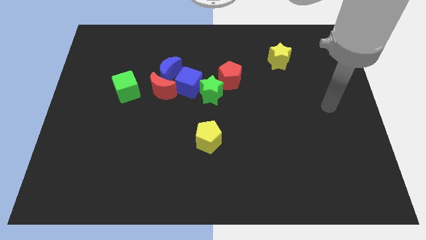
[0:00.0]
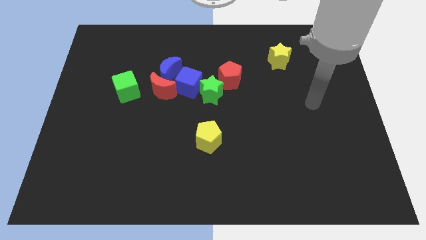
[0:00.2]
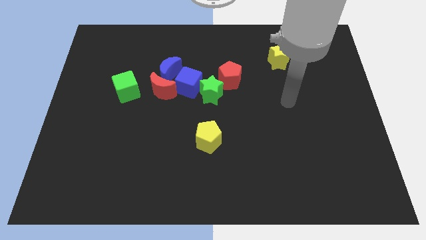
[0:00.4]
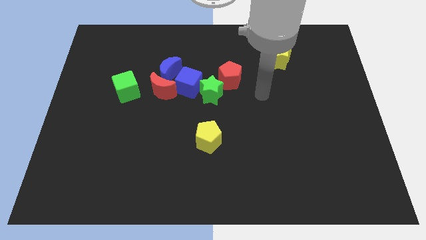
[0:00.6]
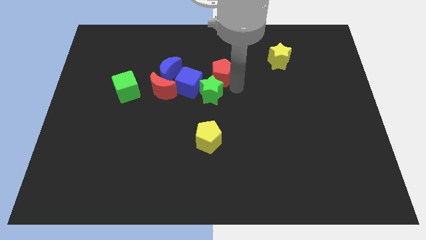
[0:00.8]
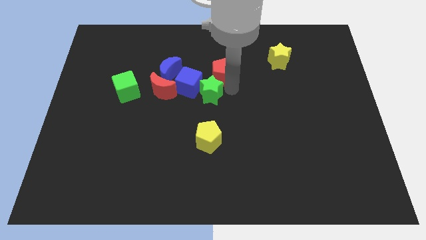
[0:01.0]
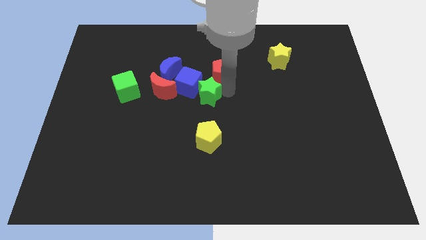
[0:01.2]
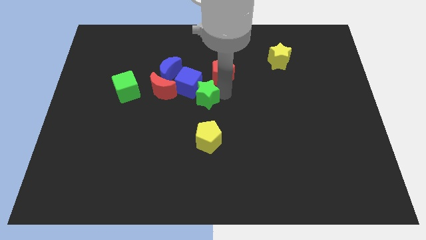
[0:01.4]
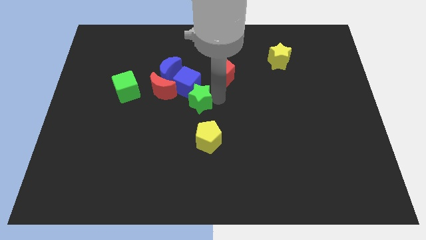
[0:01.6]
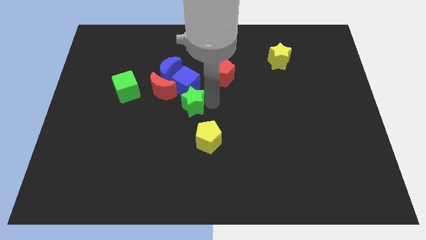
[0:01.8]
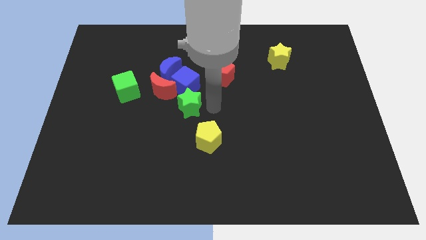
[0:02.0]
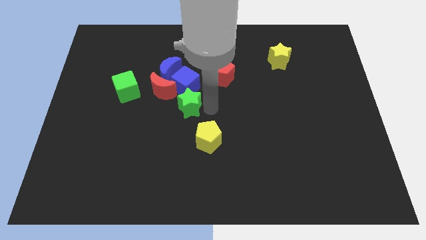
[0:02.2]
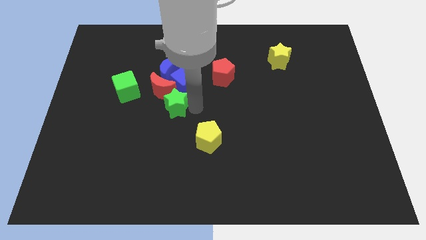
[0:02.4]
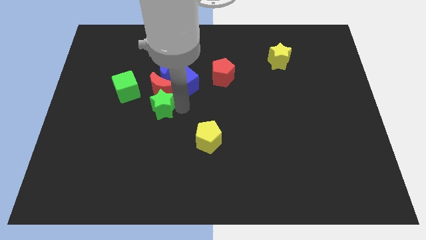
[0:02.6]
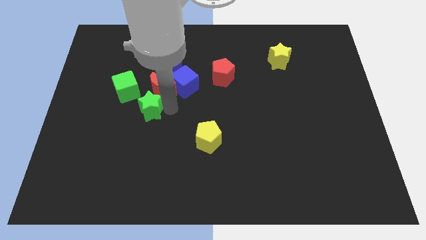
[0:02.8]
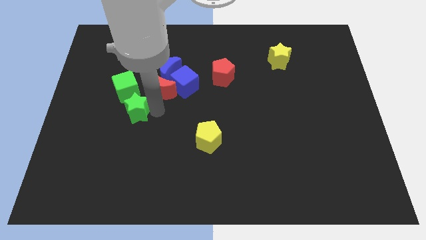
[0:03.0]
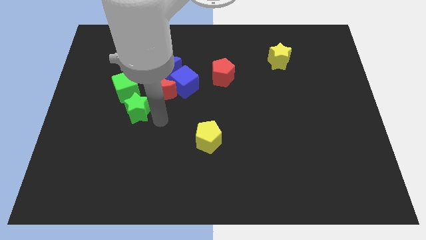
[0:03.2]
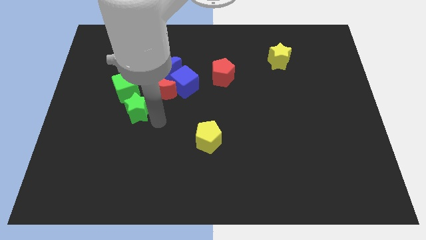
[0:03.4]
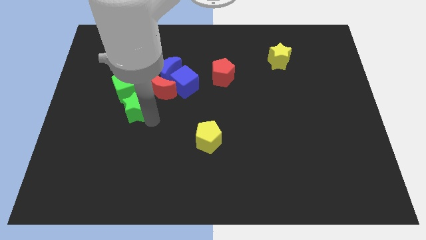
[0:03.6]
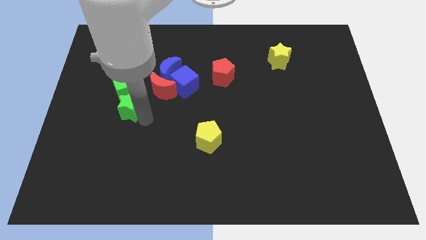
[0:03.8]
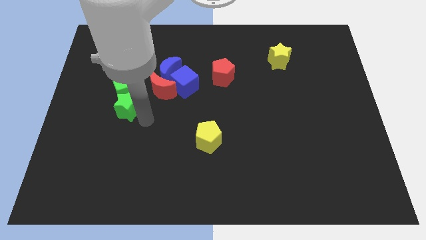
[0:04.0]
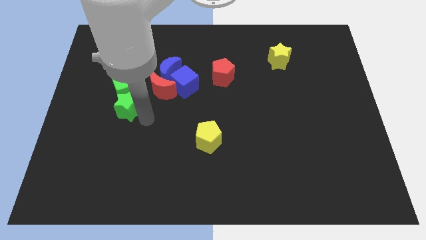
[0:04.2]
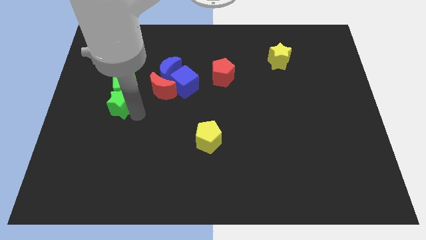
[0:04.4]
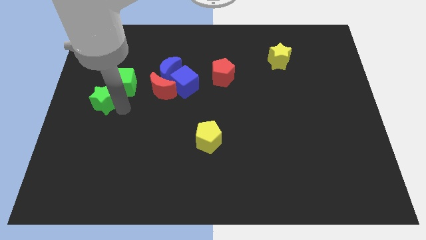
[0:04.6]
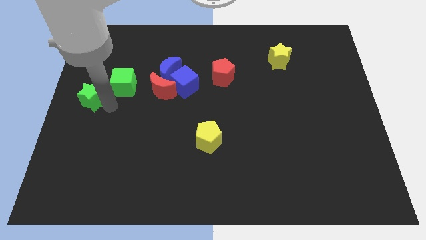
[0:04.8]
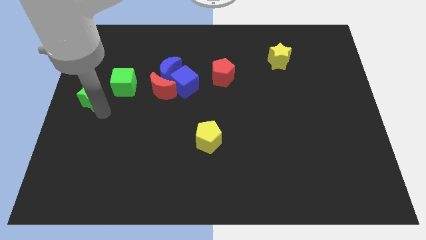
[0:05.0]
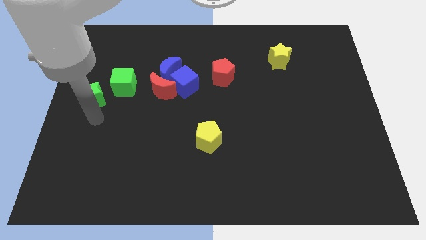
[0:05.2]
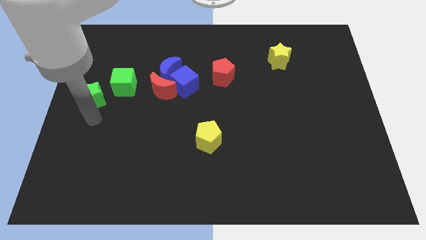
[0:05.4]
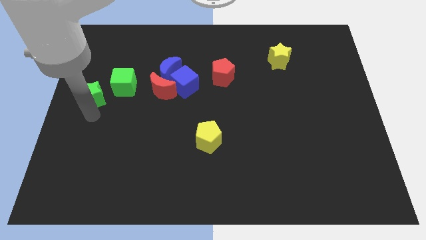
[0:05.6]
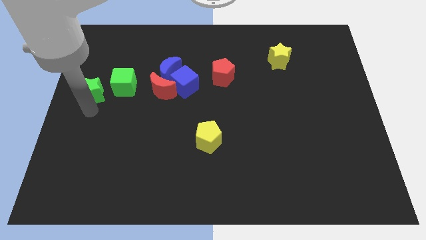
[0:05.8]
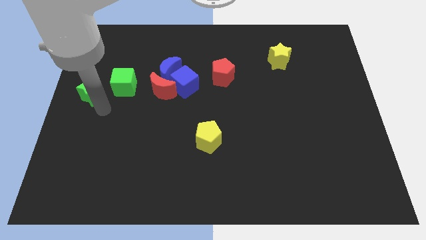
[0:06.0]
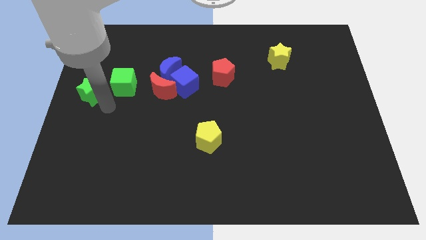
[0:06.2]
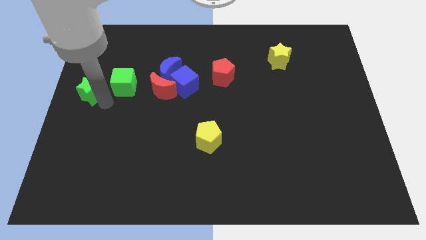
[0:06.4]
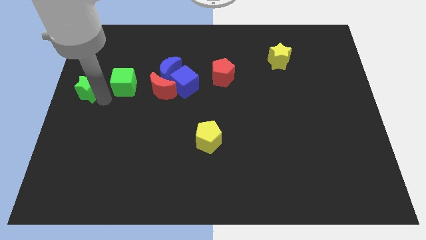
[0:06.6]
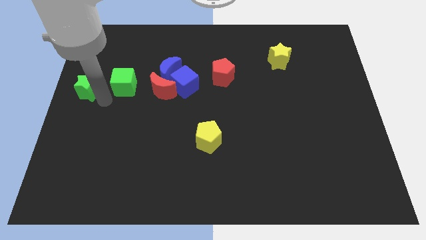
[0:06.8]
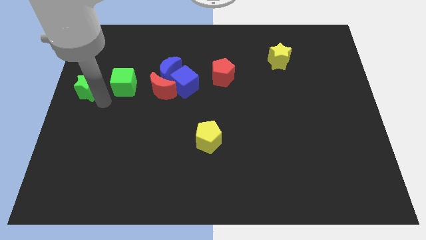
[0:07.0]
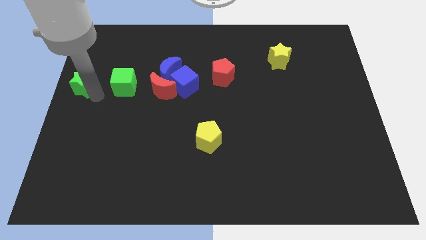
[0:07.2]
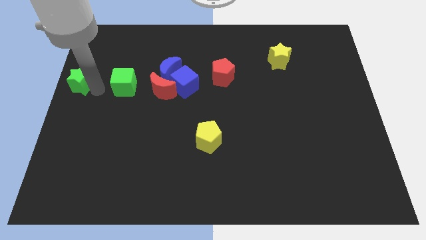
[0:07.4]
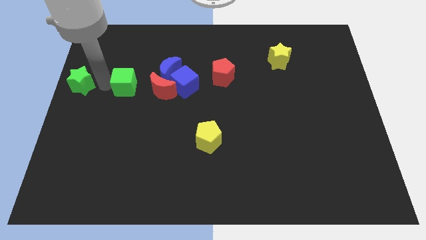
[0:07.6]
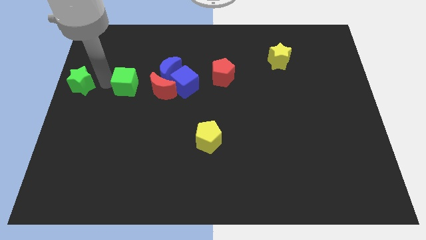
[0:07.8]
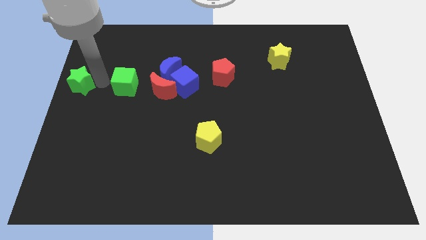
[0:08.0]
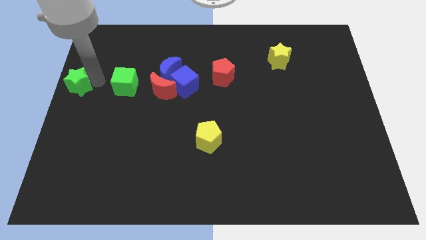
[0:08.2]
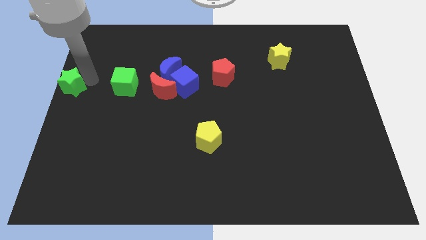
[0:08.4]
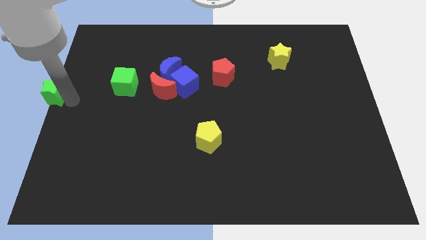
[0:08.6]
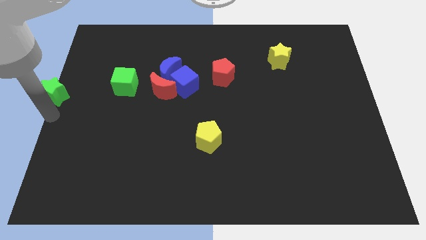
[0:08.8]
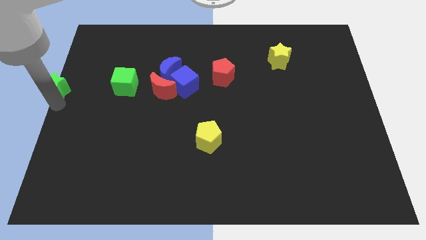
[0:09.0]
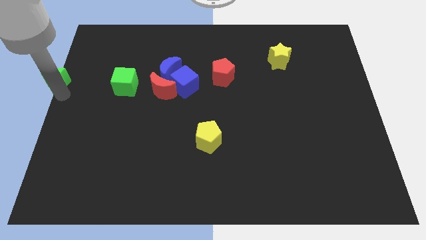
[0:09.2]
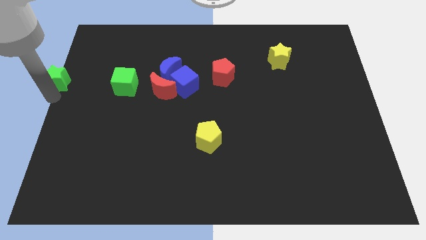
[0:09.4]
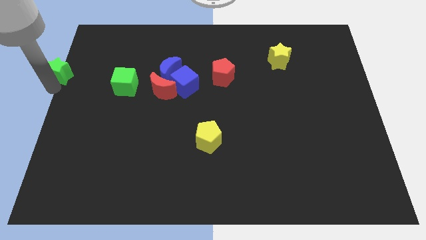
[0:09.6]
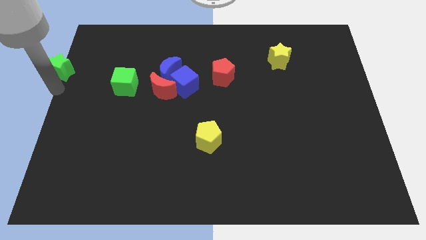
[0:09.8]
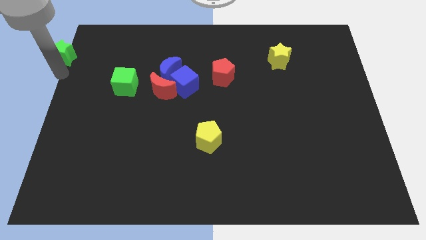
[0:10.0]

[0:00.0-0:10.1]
slide the green star to the top left of the board
